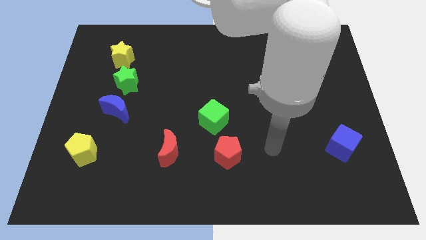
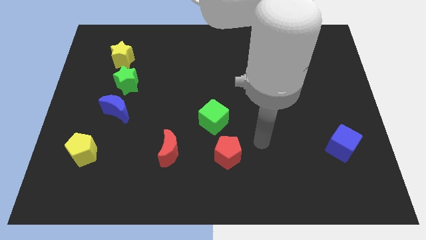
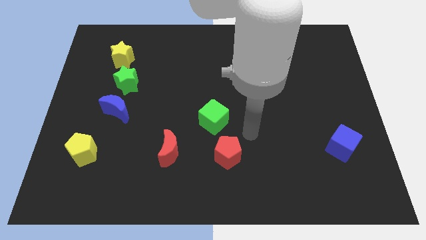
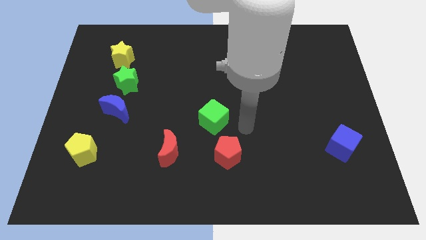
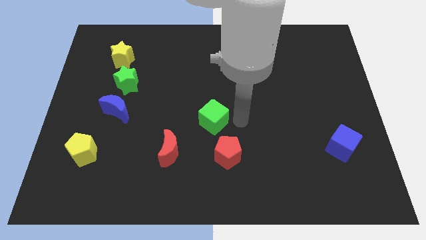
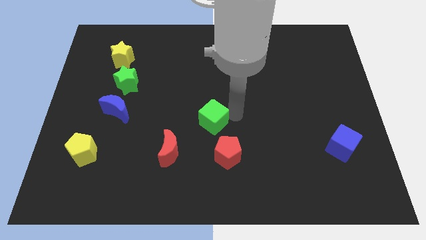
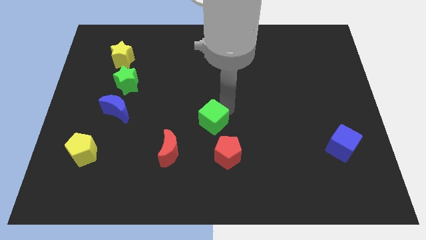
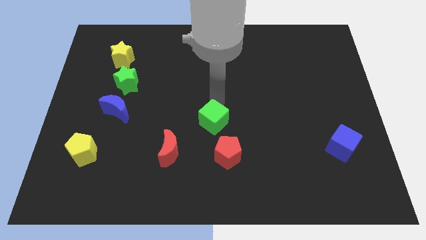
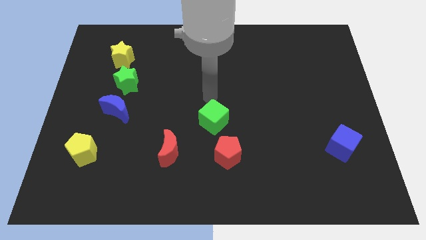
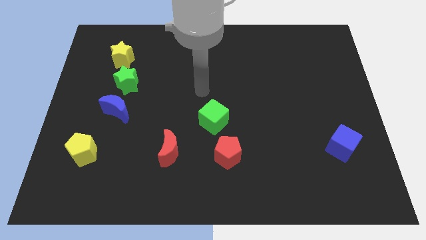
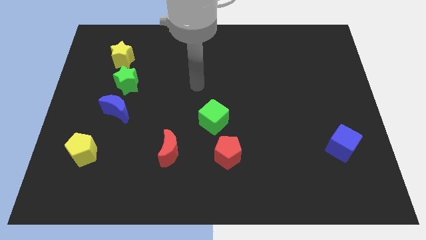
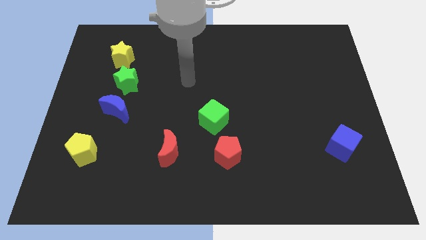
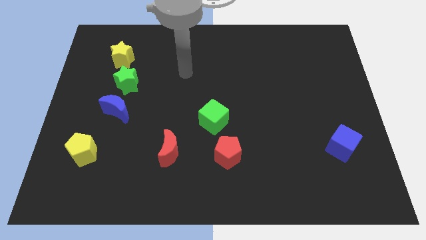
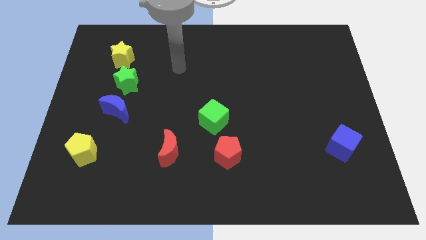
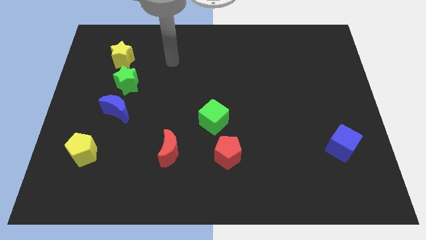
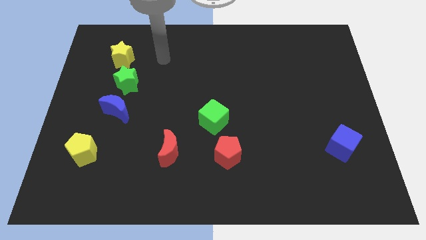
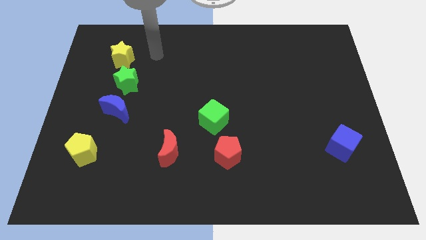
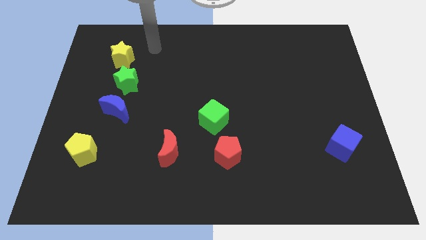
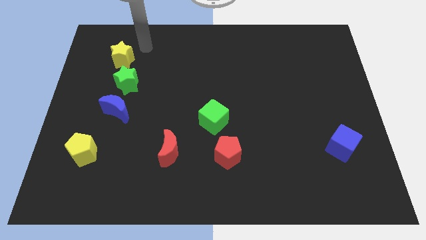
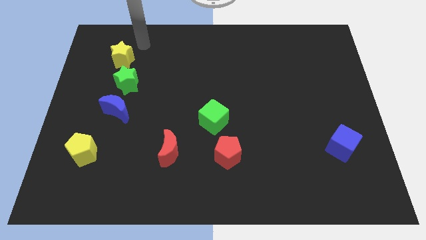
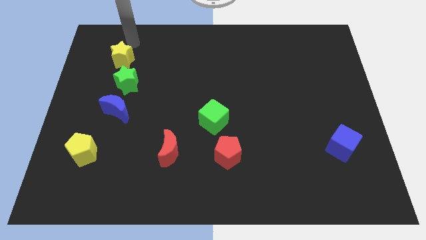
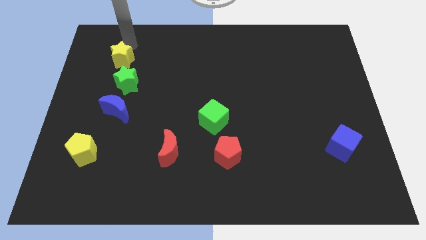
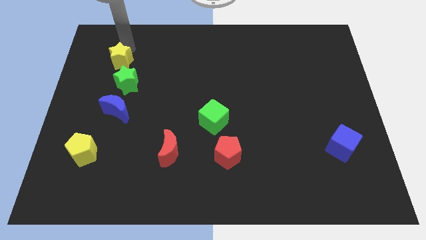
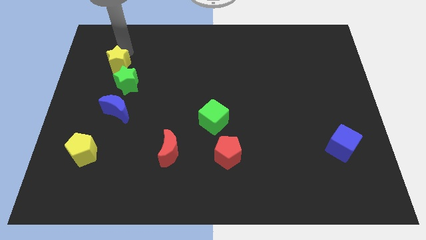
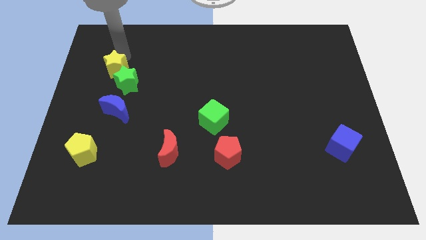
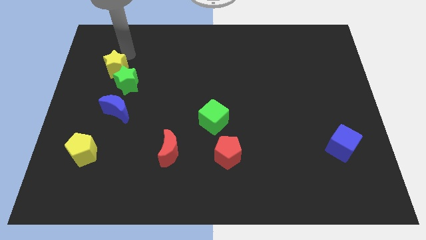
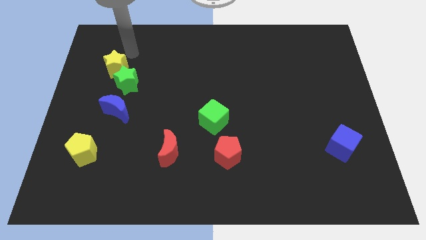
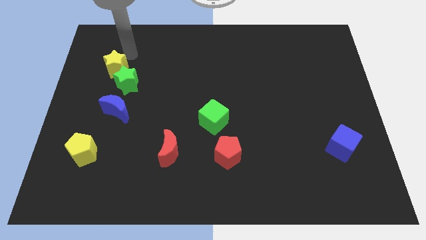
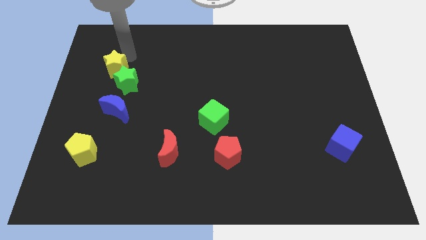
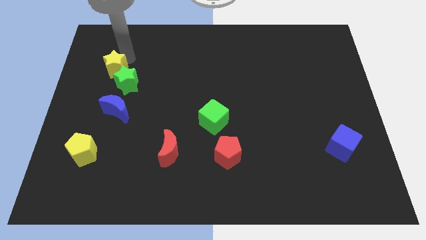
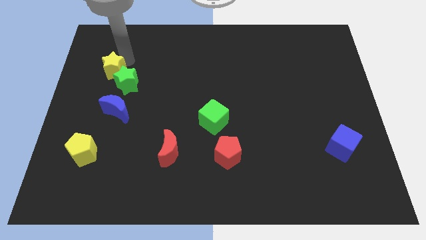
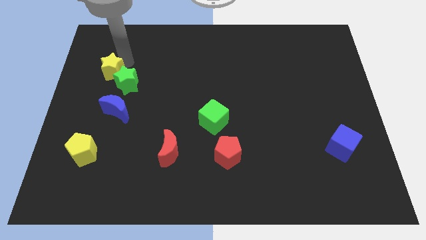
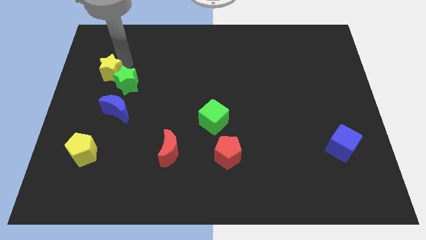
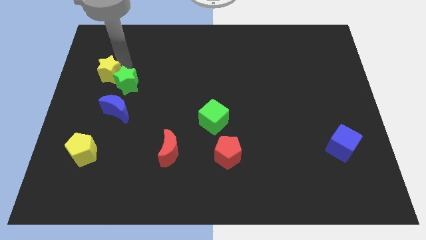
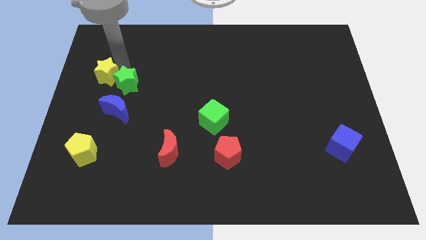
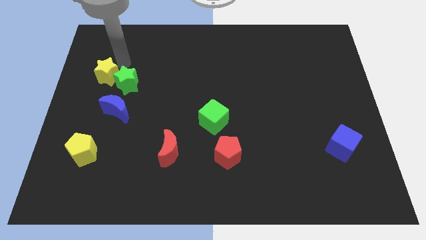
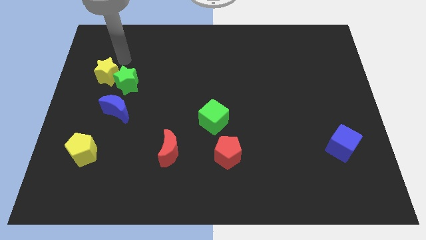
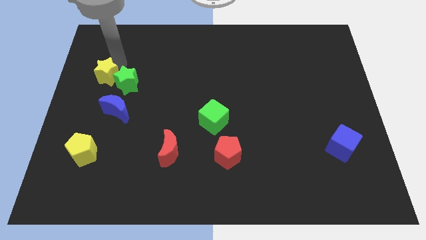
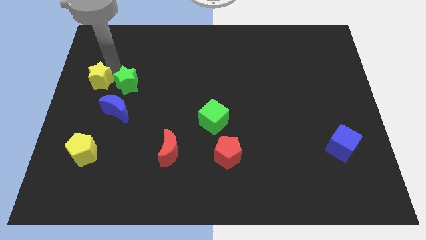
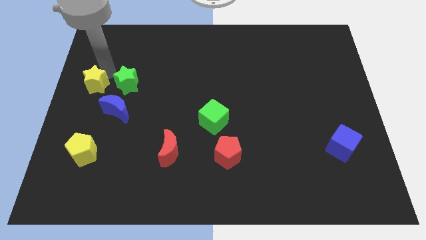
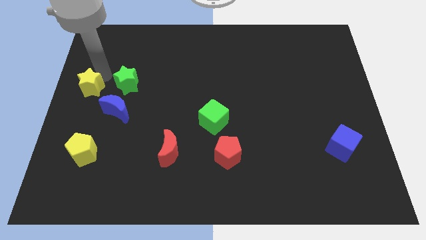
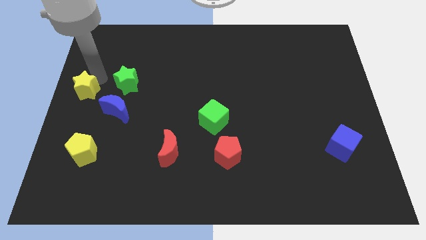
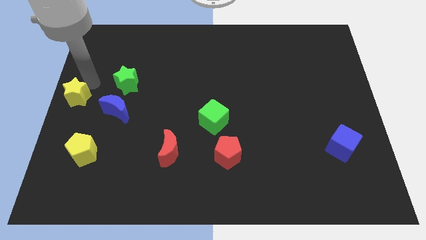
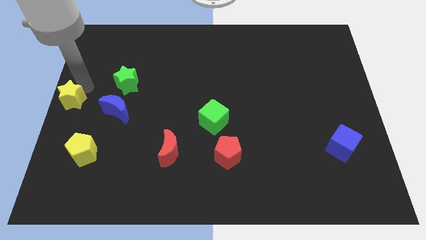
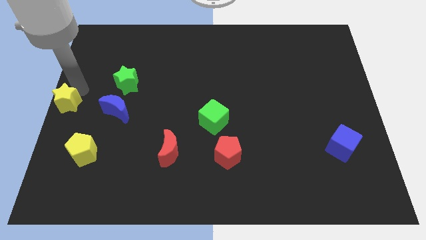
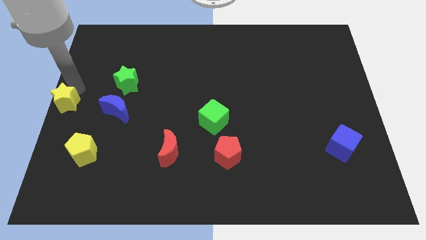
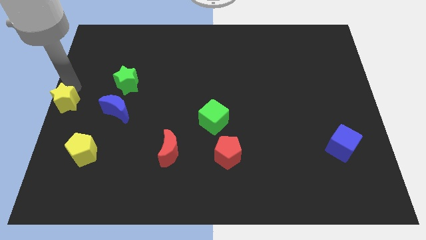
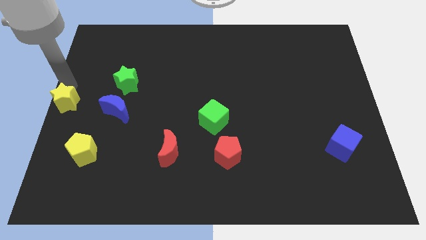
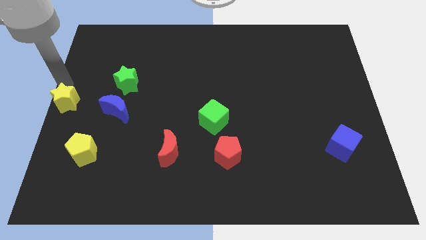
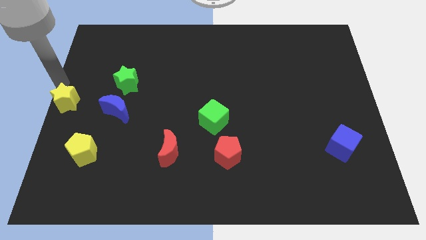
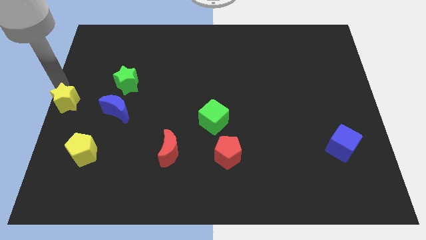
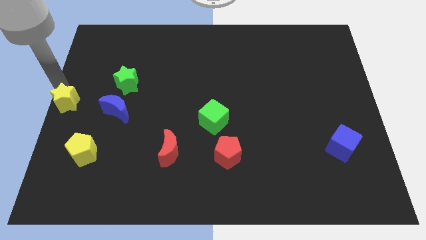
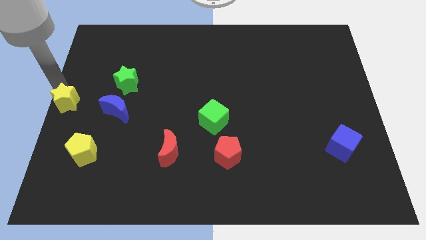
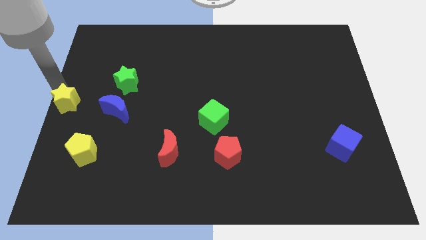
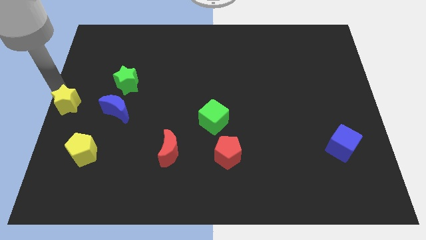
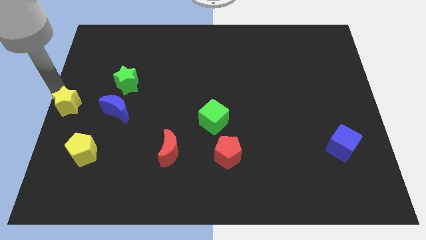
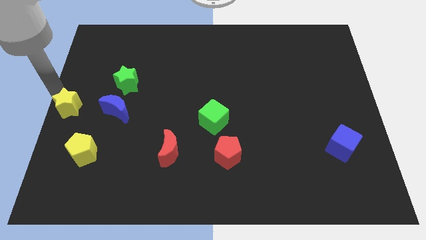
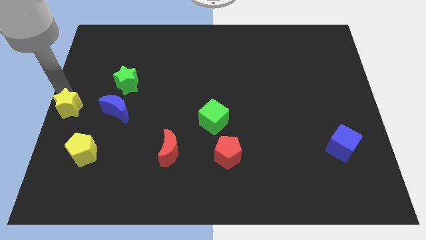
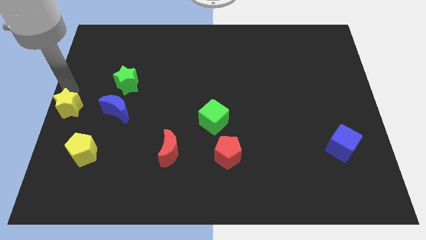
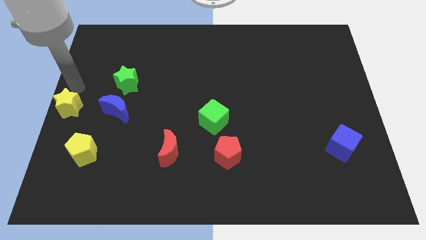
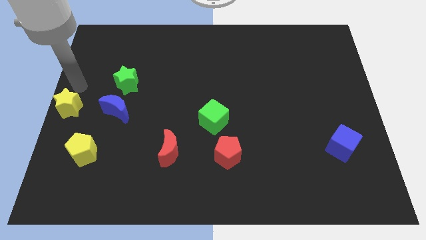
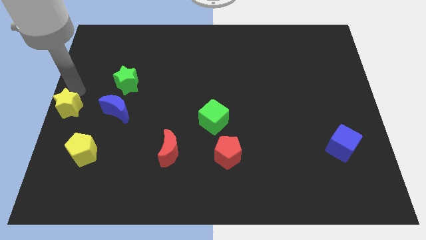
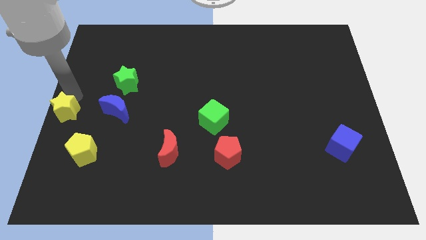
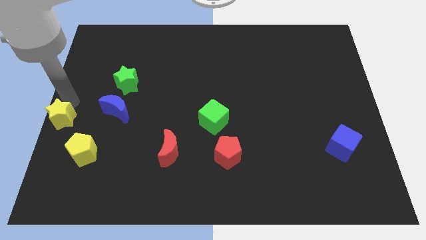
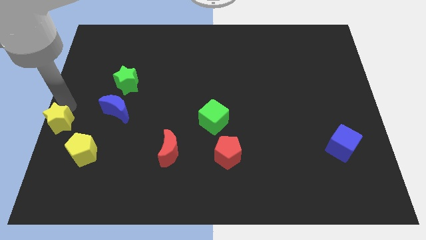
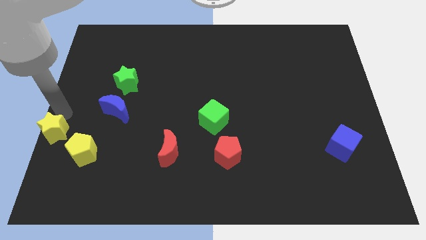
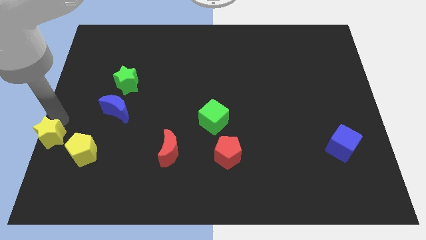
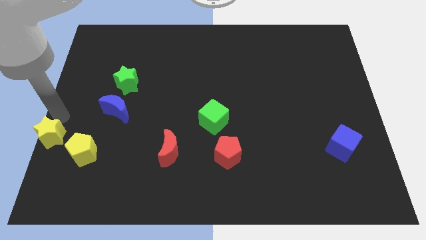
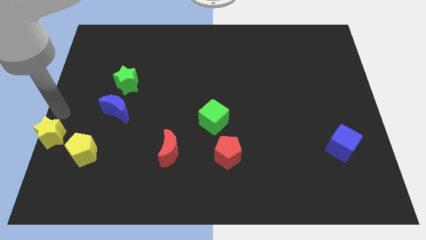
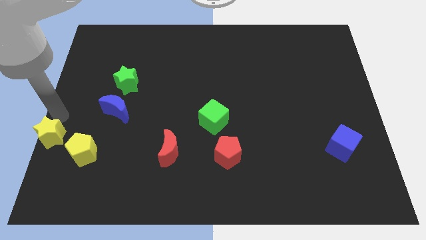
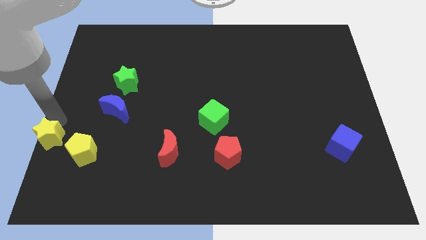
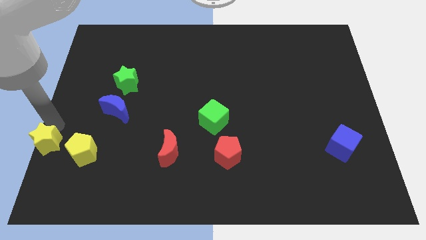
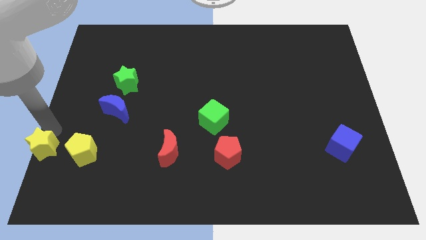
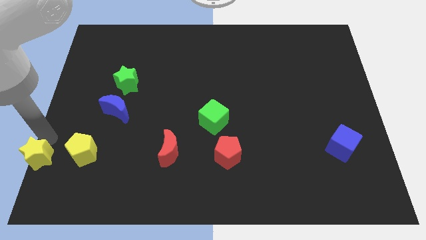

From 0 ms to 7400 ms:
put the yellow star to the bottom left
